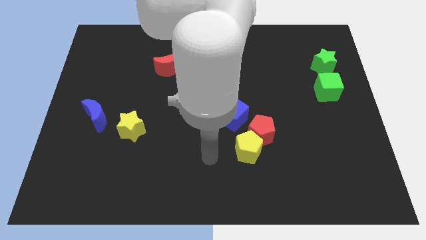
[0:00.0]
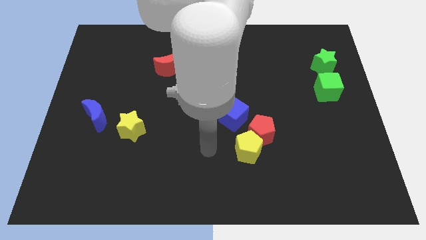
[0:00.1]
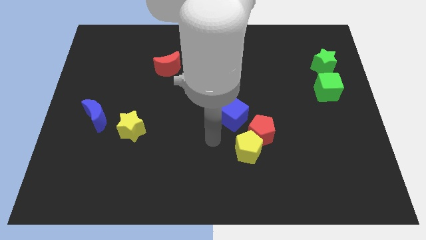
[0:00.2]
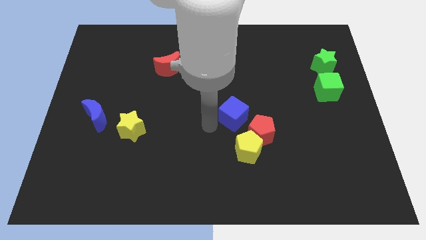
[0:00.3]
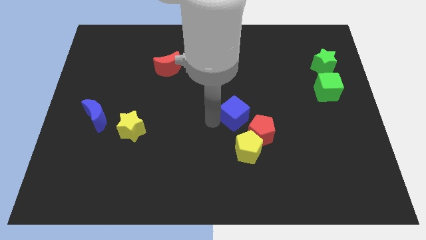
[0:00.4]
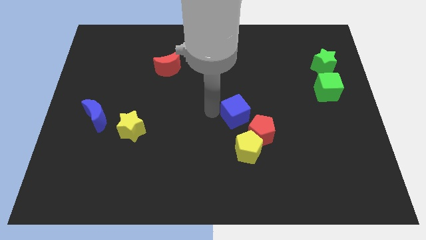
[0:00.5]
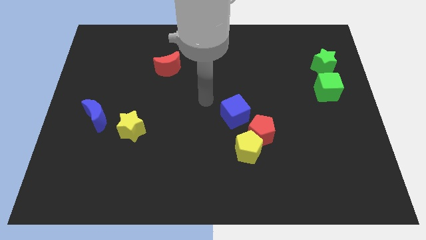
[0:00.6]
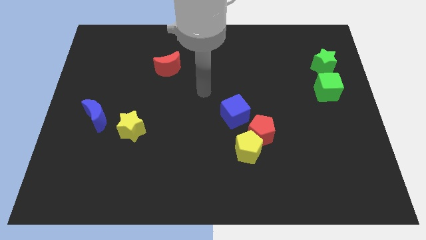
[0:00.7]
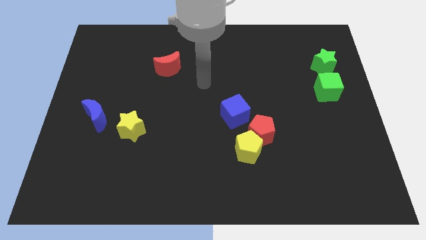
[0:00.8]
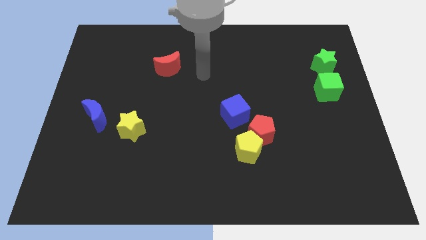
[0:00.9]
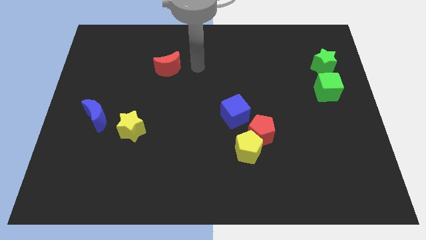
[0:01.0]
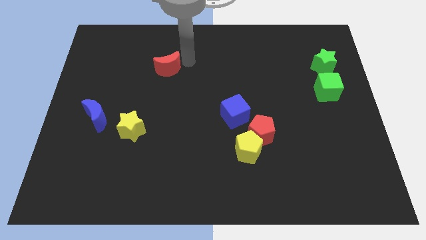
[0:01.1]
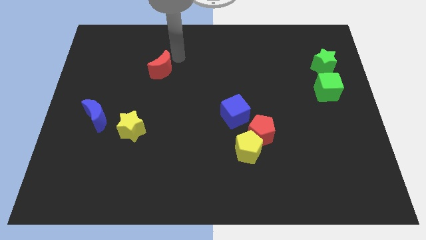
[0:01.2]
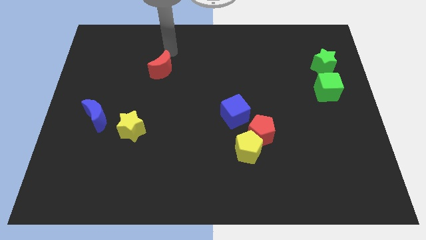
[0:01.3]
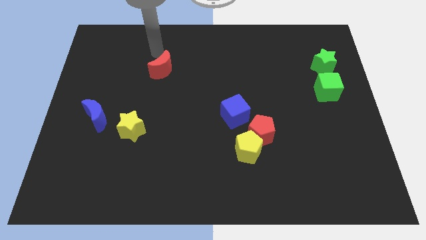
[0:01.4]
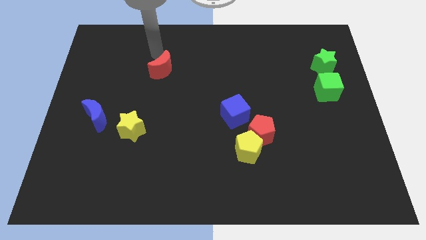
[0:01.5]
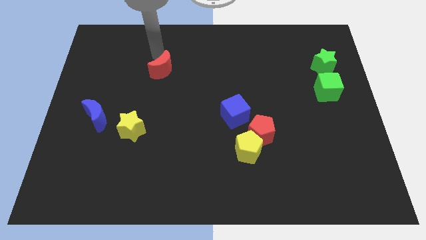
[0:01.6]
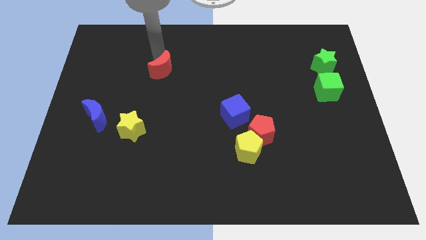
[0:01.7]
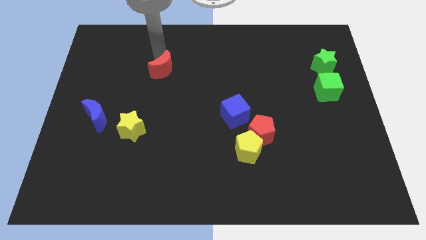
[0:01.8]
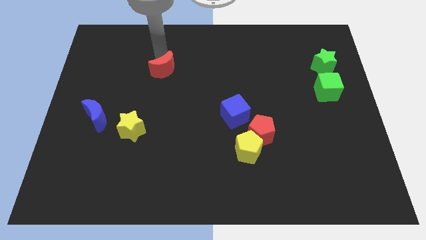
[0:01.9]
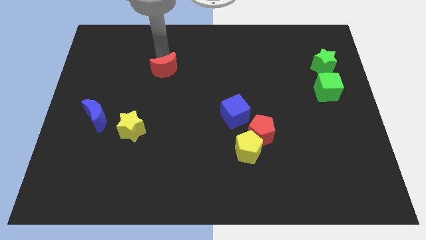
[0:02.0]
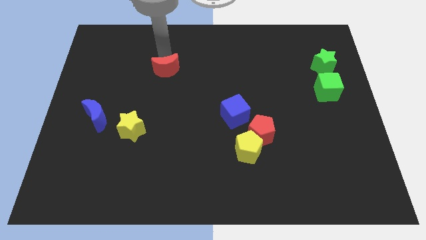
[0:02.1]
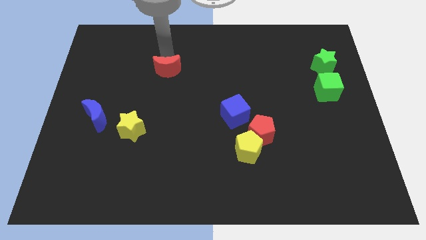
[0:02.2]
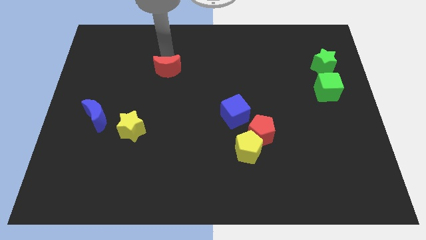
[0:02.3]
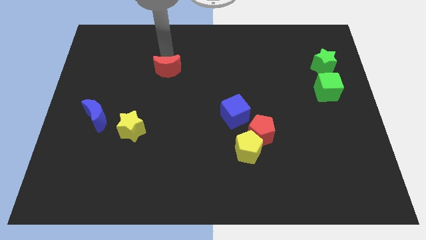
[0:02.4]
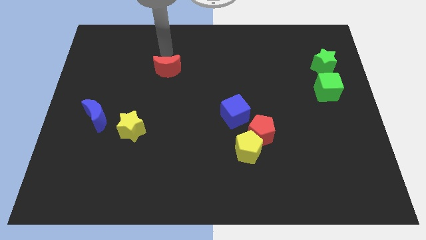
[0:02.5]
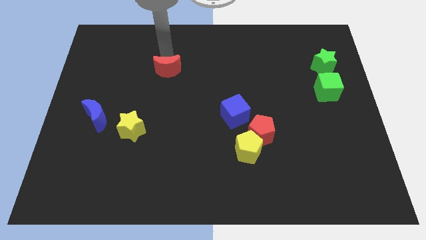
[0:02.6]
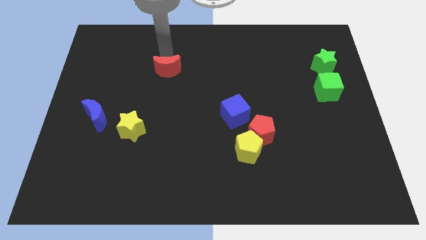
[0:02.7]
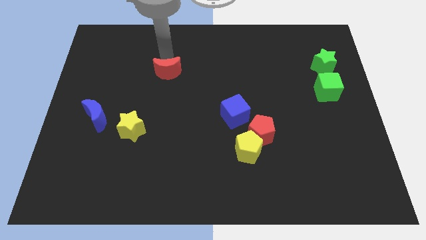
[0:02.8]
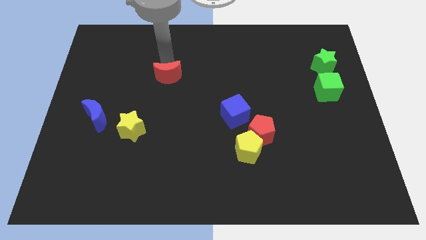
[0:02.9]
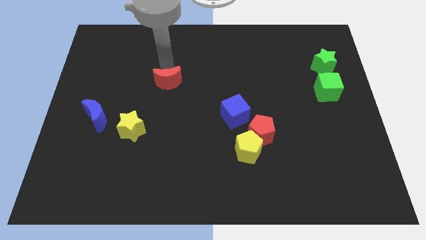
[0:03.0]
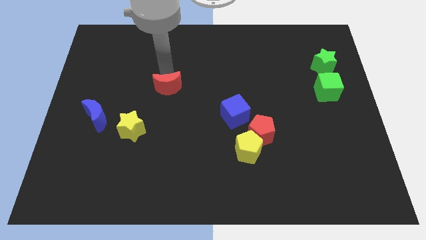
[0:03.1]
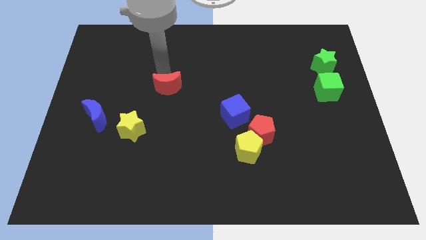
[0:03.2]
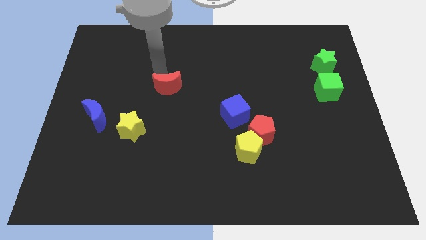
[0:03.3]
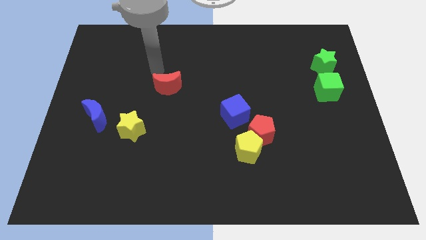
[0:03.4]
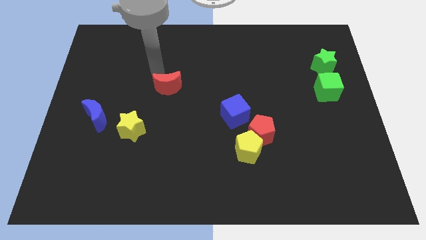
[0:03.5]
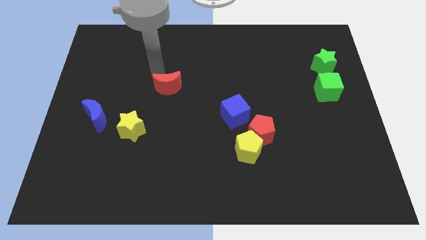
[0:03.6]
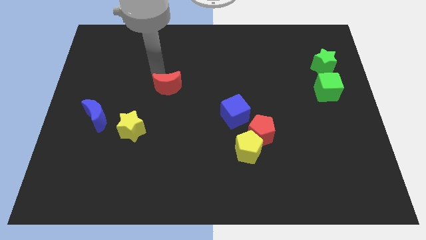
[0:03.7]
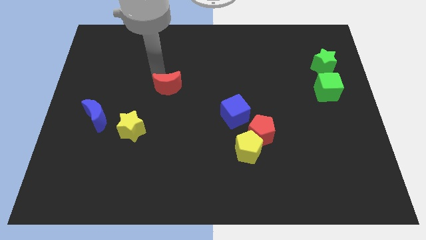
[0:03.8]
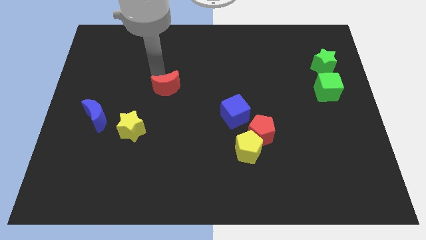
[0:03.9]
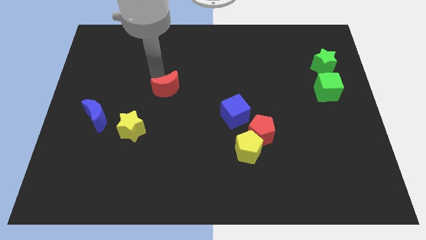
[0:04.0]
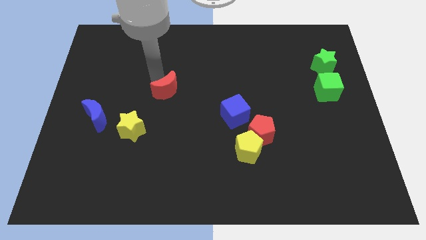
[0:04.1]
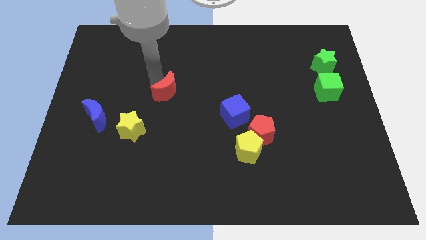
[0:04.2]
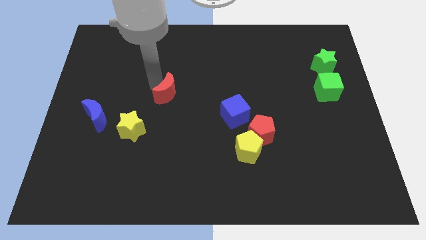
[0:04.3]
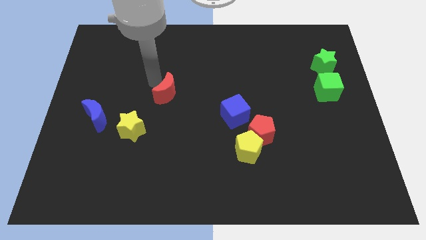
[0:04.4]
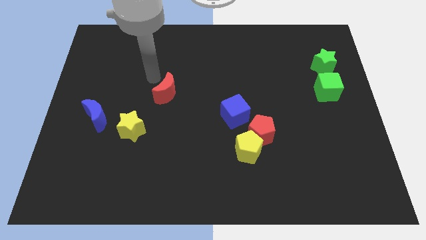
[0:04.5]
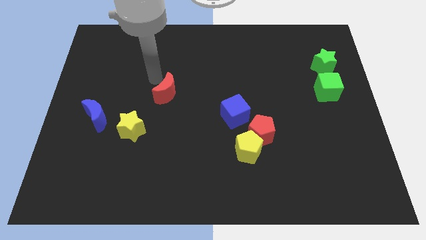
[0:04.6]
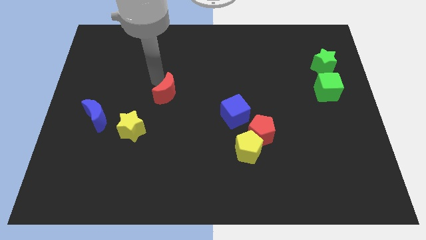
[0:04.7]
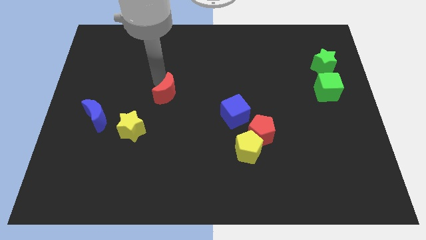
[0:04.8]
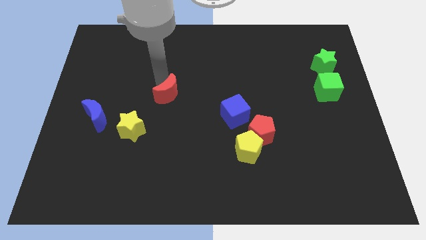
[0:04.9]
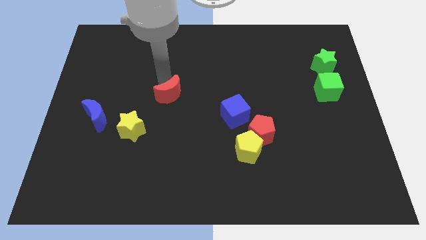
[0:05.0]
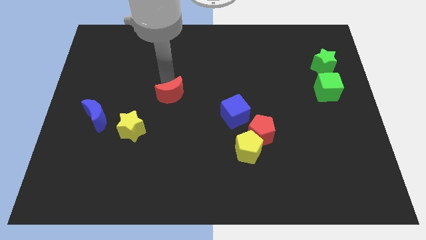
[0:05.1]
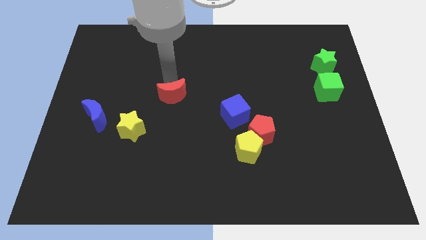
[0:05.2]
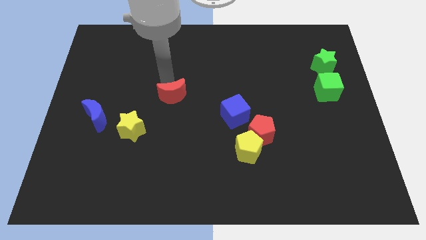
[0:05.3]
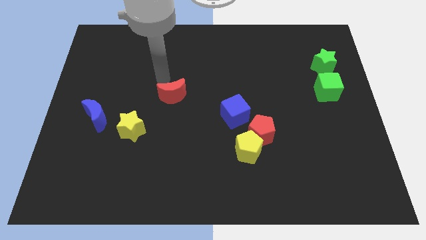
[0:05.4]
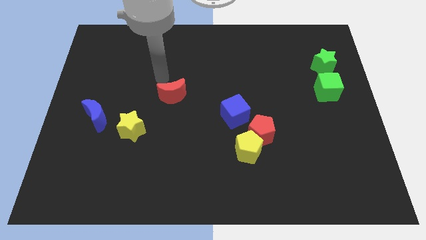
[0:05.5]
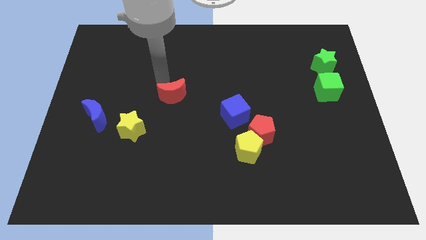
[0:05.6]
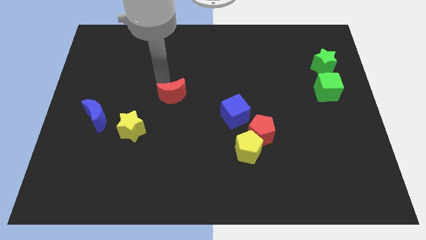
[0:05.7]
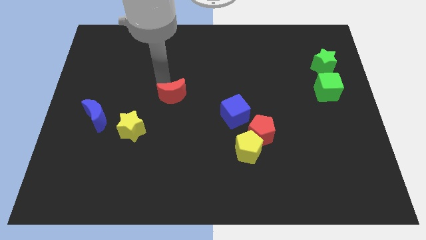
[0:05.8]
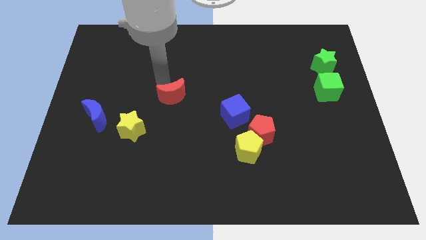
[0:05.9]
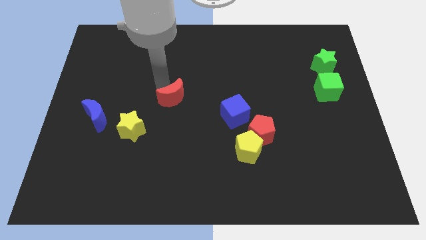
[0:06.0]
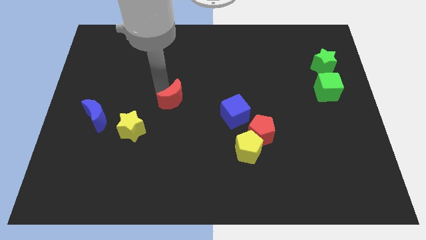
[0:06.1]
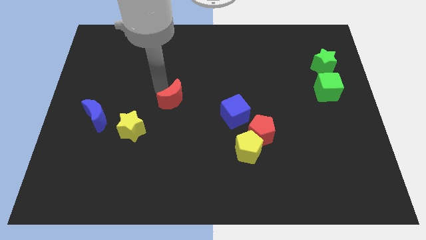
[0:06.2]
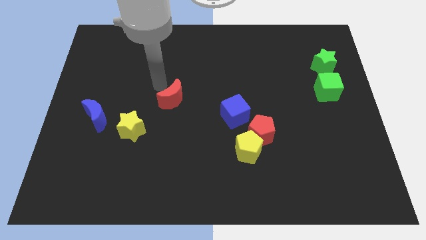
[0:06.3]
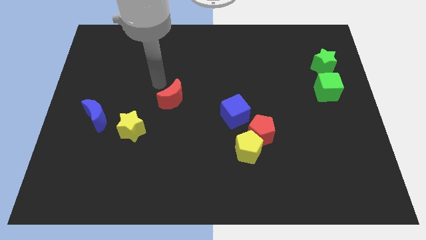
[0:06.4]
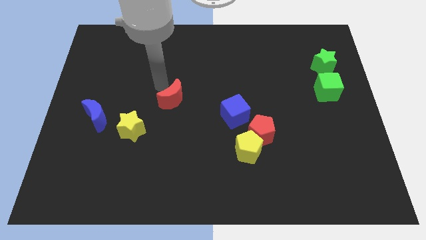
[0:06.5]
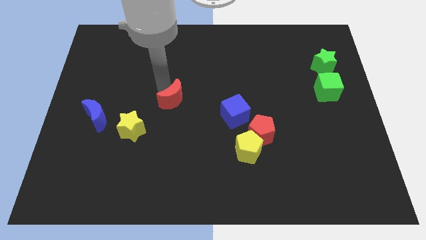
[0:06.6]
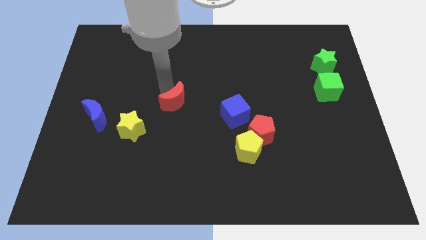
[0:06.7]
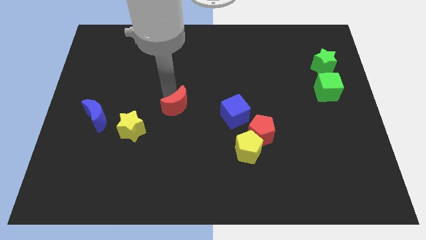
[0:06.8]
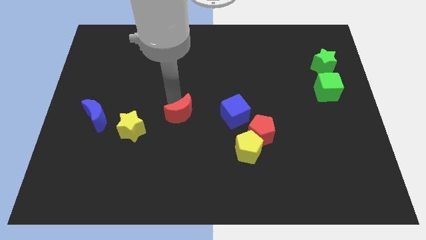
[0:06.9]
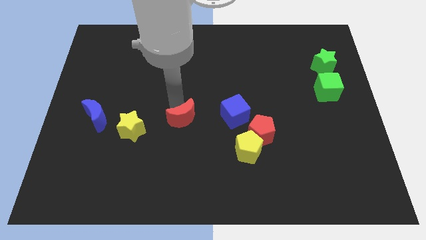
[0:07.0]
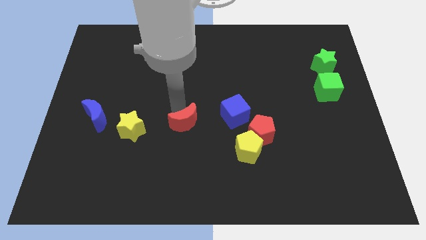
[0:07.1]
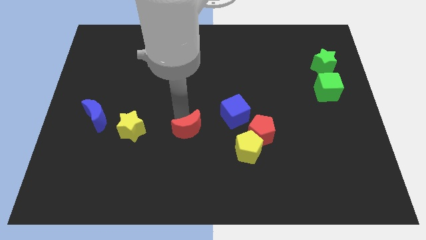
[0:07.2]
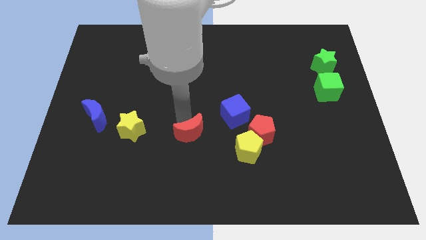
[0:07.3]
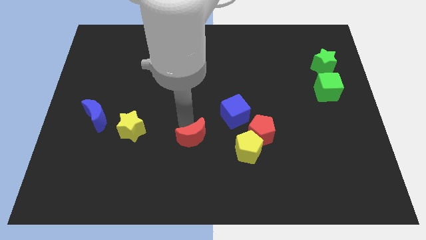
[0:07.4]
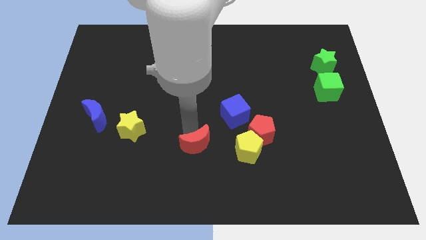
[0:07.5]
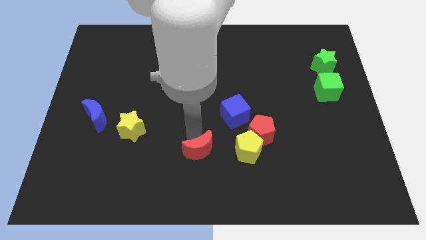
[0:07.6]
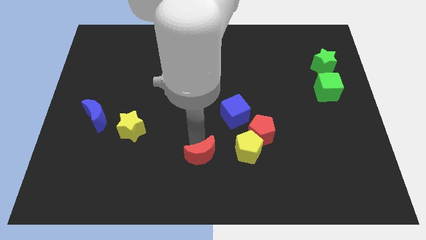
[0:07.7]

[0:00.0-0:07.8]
slide the red moon to the bottom side
